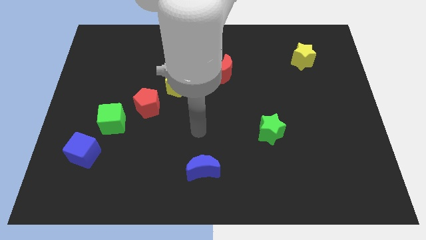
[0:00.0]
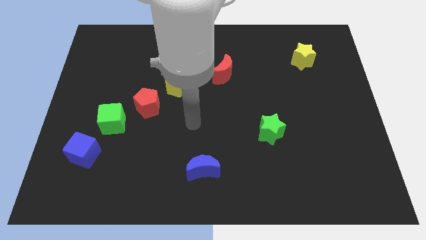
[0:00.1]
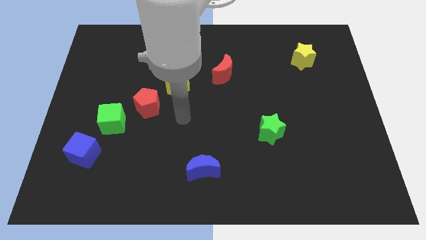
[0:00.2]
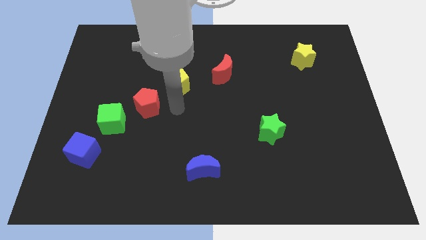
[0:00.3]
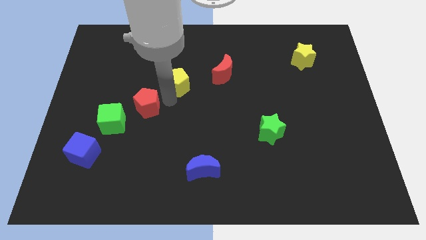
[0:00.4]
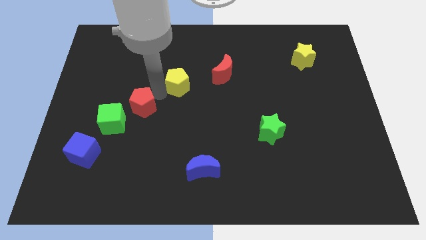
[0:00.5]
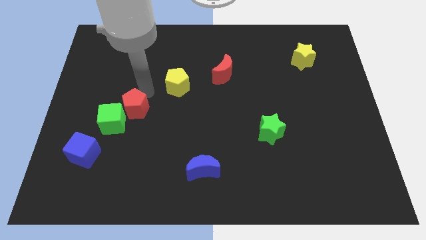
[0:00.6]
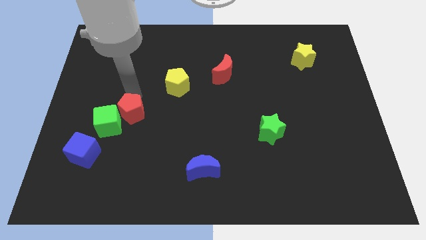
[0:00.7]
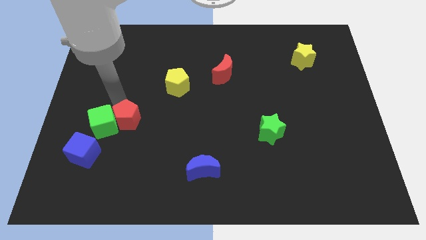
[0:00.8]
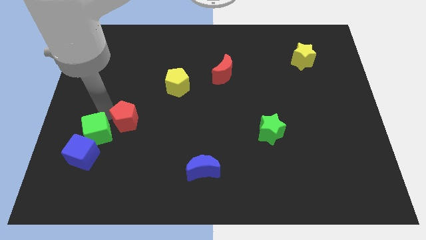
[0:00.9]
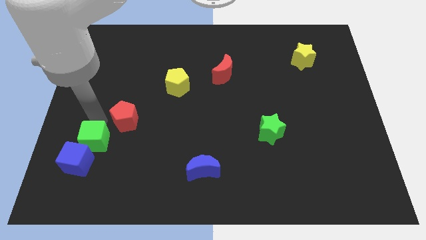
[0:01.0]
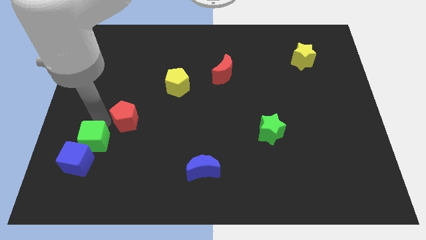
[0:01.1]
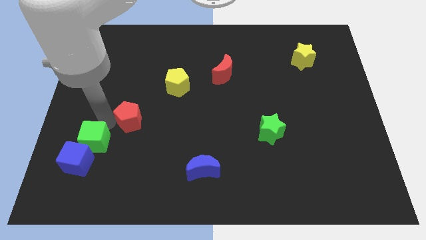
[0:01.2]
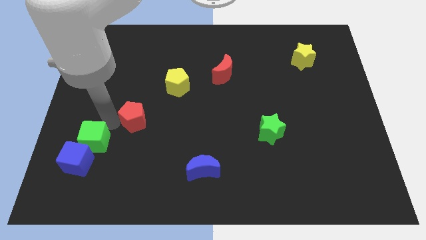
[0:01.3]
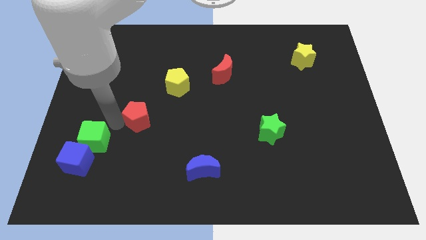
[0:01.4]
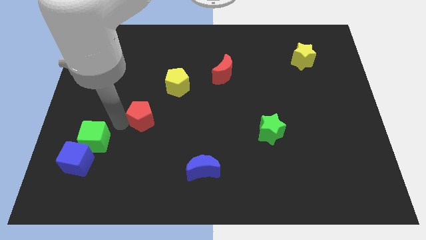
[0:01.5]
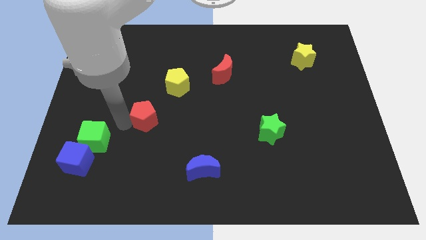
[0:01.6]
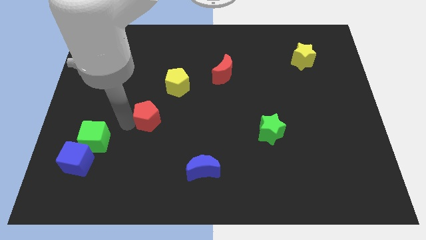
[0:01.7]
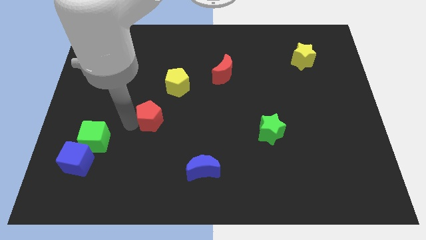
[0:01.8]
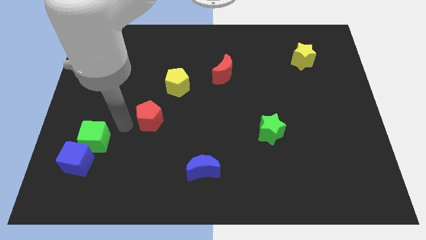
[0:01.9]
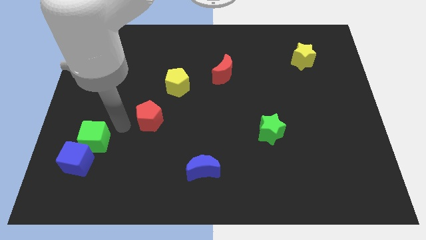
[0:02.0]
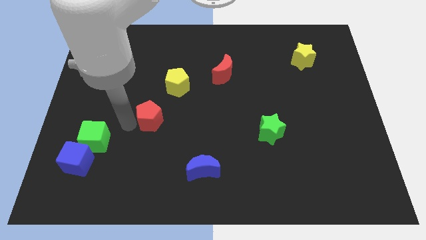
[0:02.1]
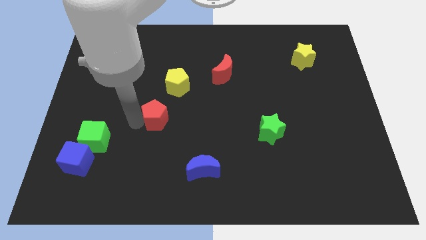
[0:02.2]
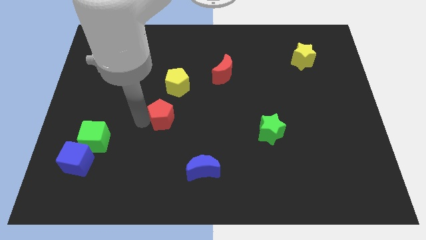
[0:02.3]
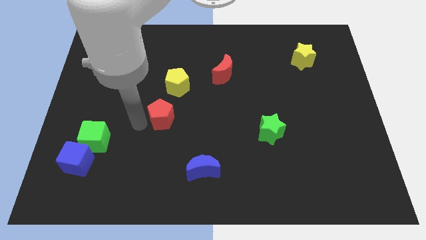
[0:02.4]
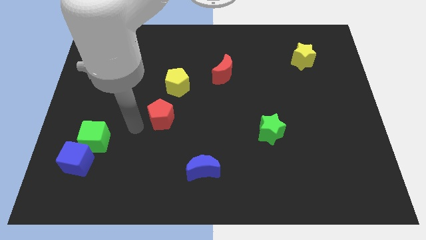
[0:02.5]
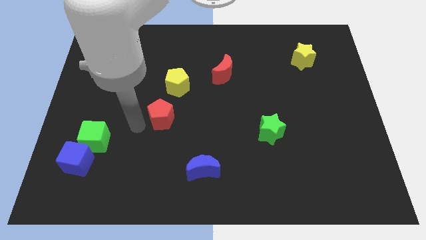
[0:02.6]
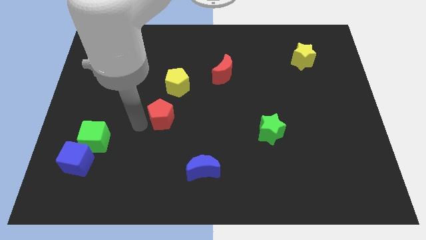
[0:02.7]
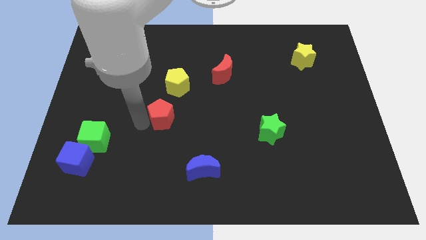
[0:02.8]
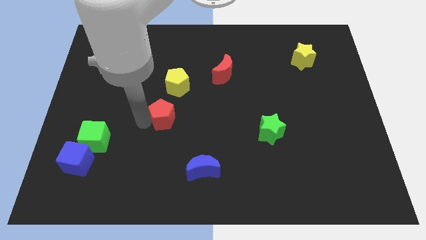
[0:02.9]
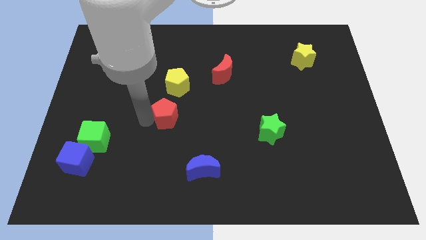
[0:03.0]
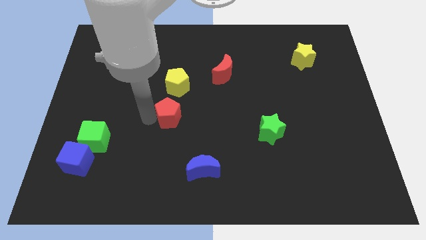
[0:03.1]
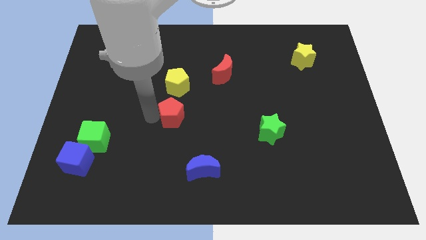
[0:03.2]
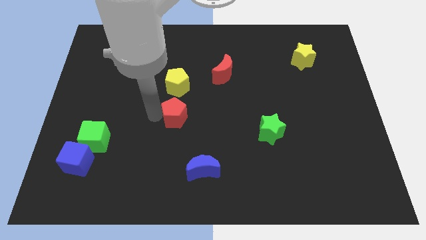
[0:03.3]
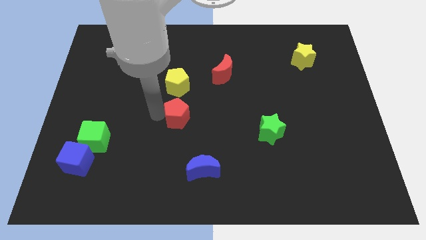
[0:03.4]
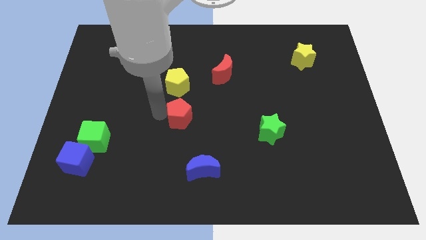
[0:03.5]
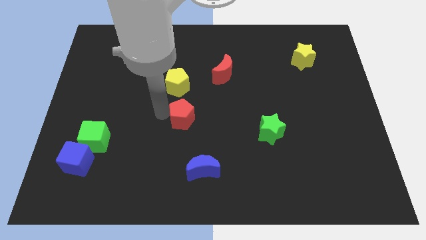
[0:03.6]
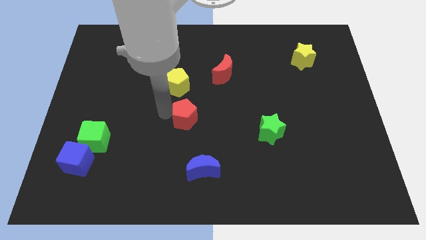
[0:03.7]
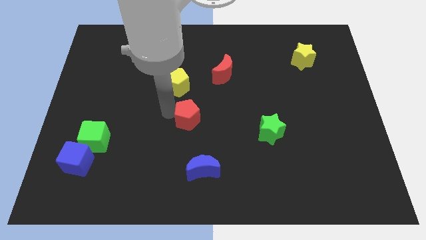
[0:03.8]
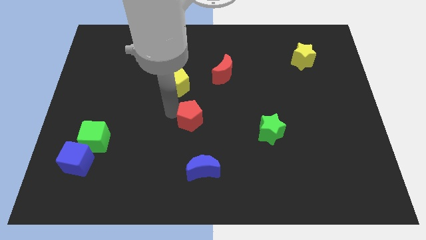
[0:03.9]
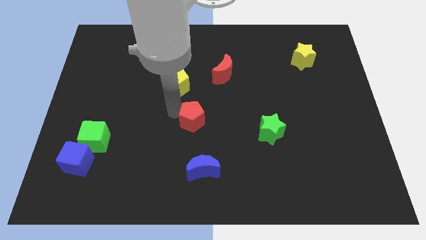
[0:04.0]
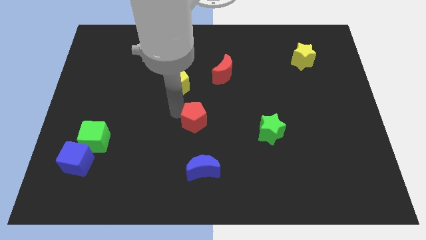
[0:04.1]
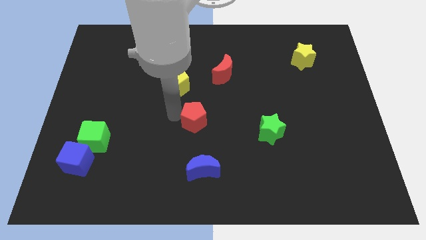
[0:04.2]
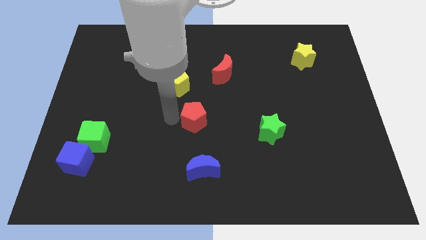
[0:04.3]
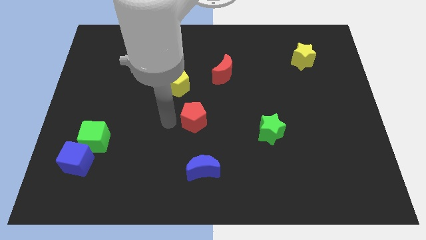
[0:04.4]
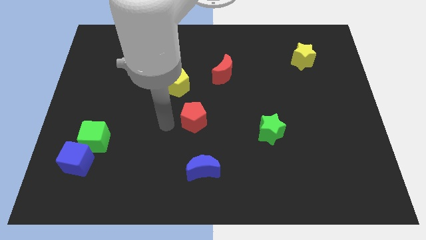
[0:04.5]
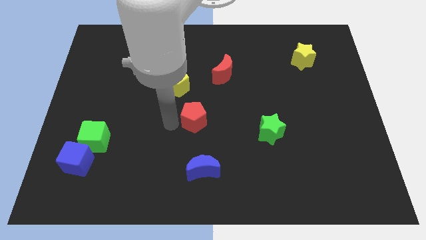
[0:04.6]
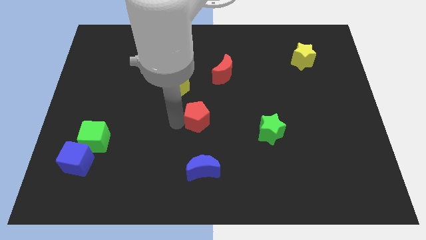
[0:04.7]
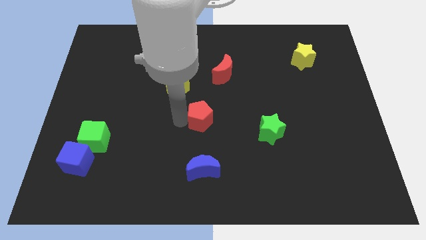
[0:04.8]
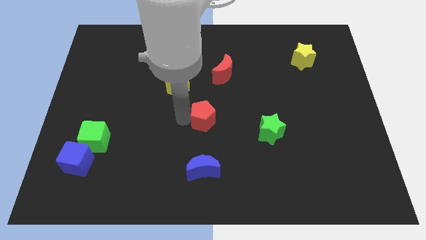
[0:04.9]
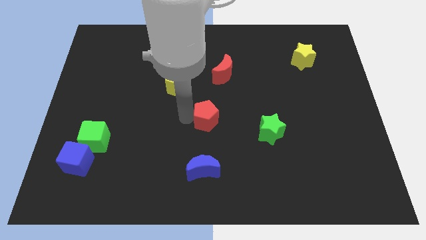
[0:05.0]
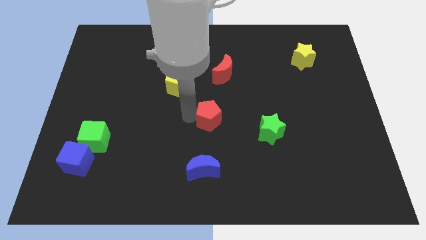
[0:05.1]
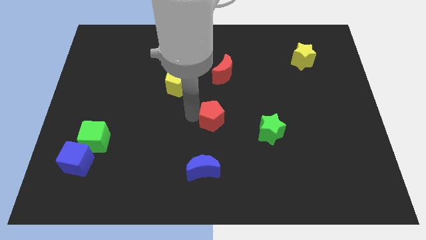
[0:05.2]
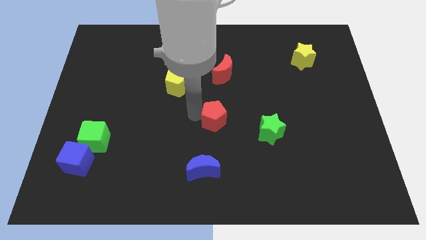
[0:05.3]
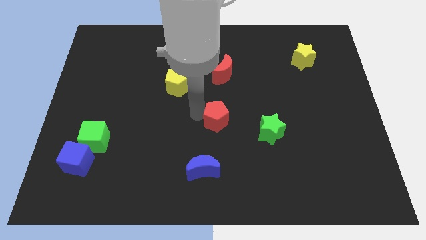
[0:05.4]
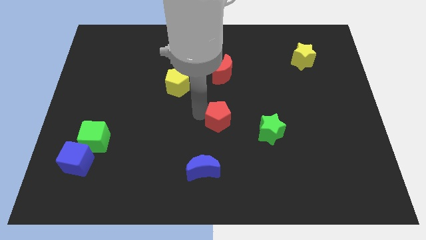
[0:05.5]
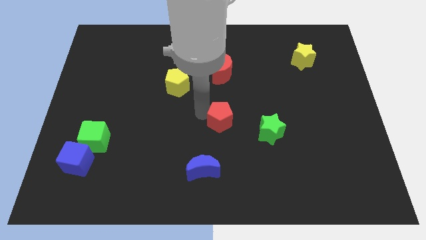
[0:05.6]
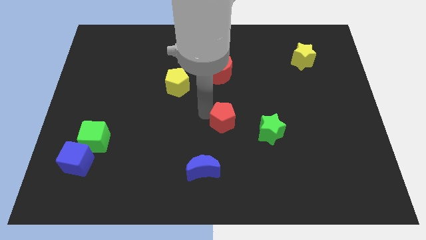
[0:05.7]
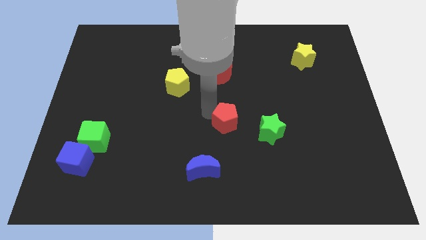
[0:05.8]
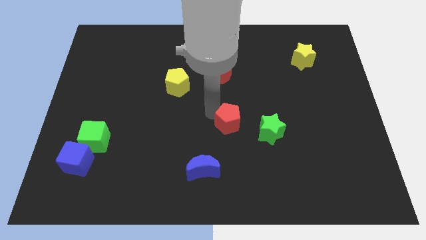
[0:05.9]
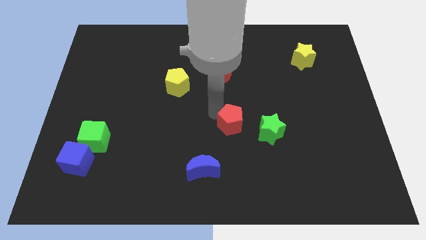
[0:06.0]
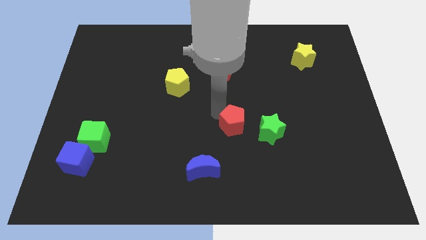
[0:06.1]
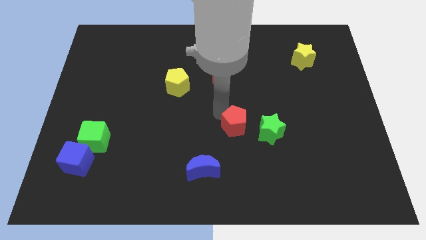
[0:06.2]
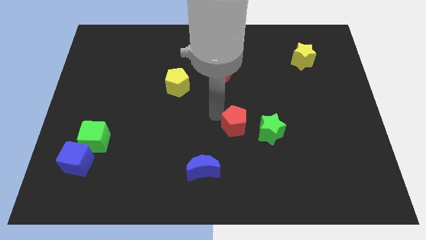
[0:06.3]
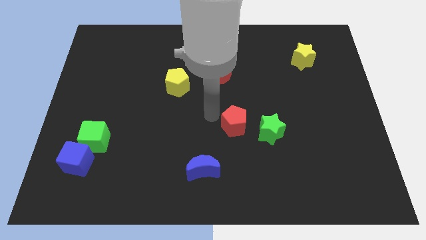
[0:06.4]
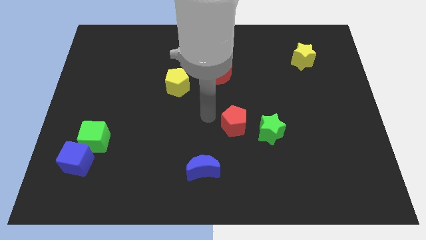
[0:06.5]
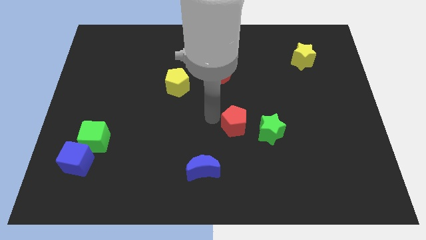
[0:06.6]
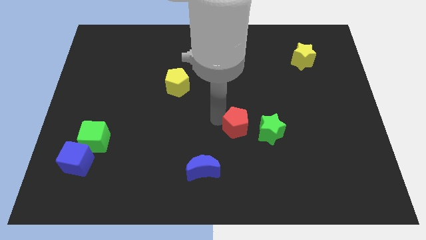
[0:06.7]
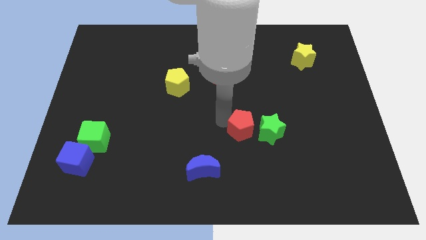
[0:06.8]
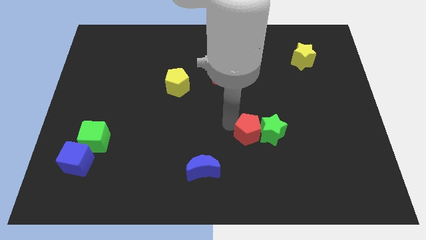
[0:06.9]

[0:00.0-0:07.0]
push the red pentagon close to the green star

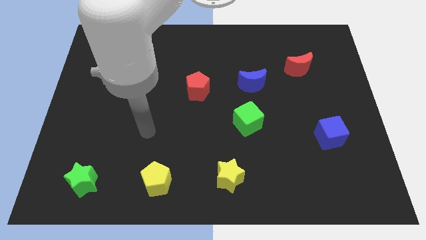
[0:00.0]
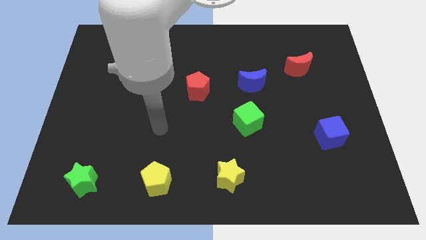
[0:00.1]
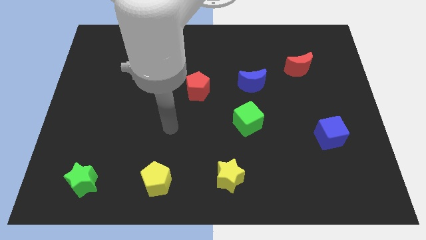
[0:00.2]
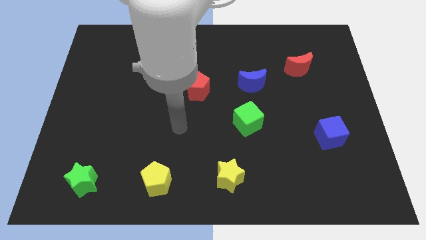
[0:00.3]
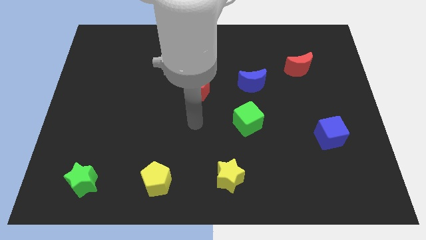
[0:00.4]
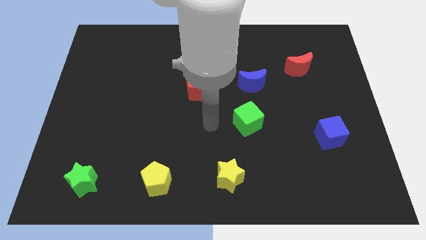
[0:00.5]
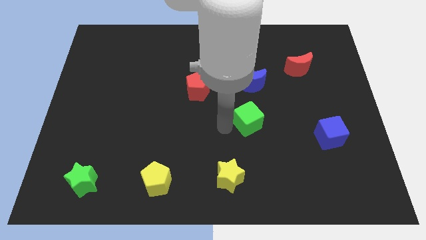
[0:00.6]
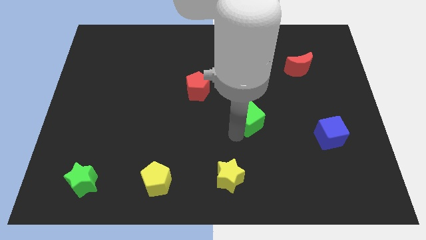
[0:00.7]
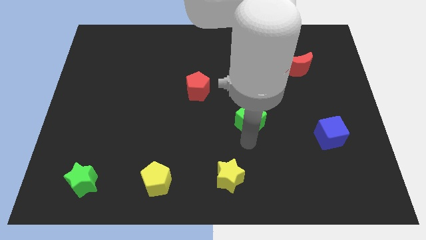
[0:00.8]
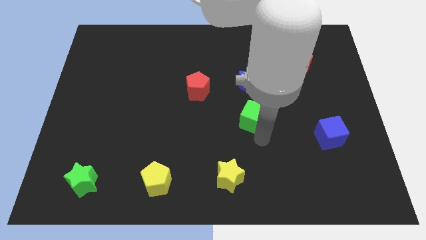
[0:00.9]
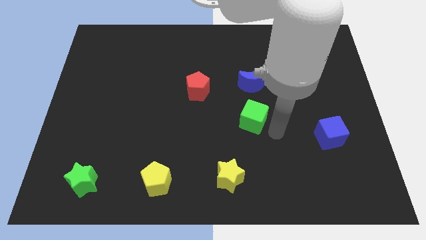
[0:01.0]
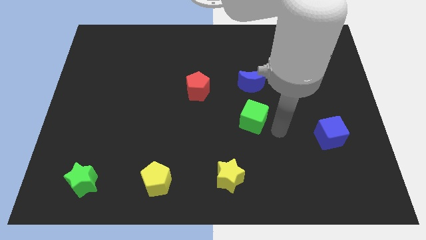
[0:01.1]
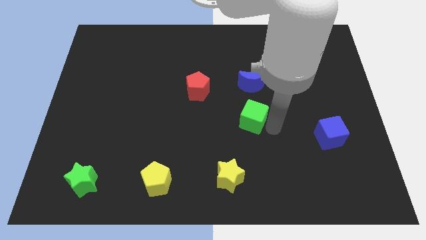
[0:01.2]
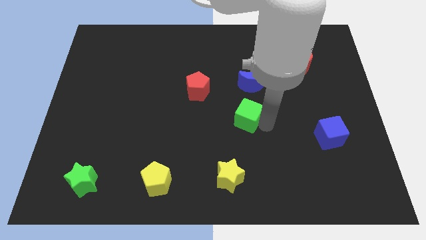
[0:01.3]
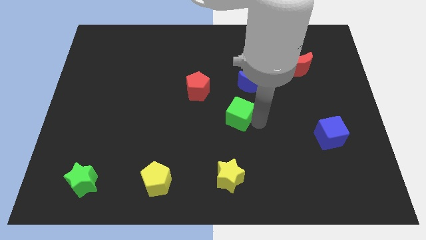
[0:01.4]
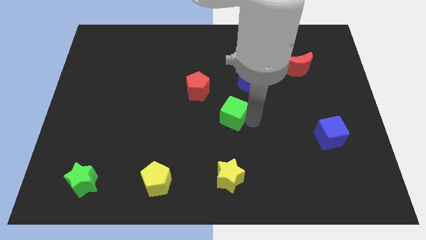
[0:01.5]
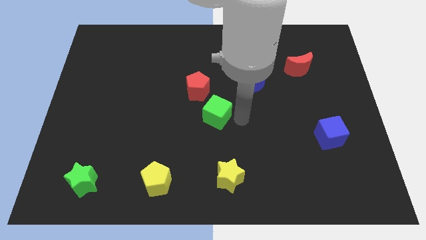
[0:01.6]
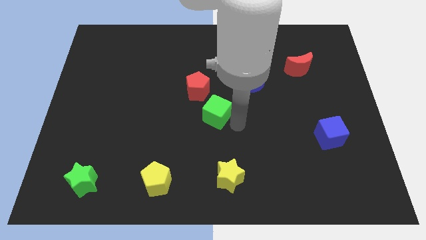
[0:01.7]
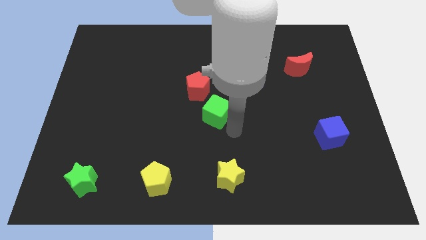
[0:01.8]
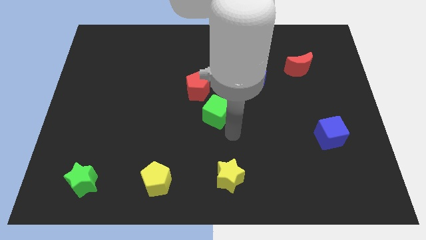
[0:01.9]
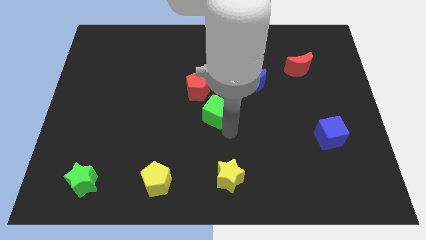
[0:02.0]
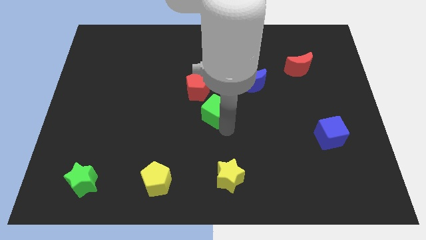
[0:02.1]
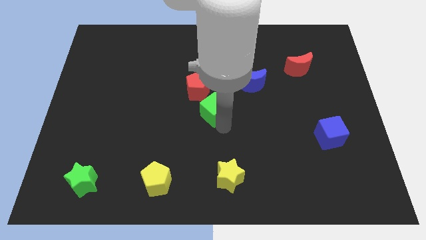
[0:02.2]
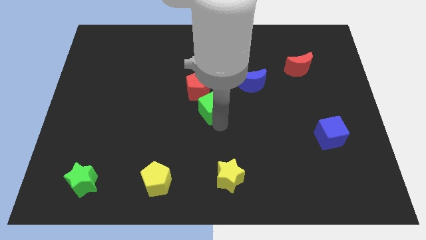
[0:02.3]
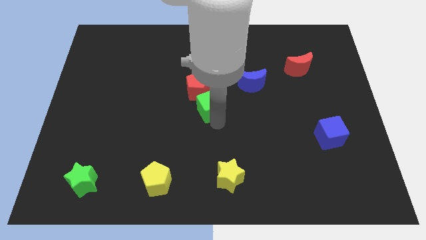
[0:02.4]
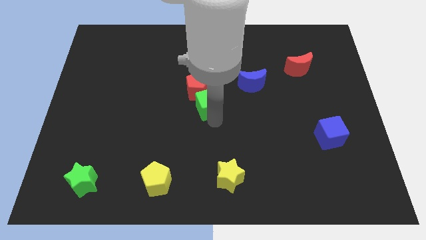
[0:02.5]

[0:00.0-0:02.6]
slide the green cube next to the red pentagon
